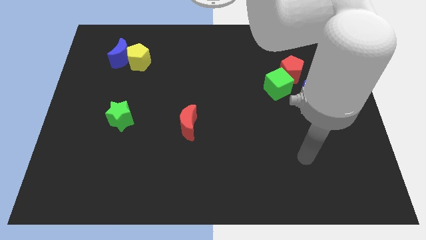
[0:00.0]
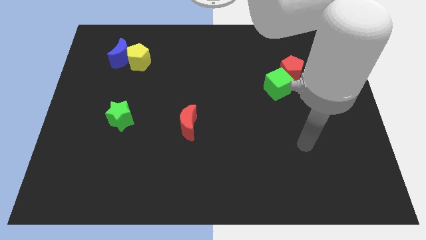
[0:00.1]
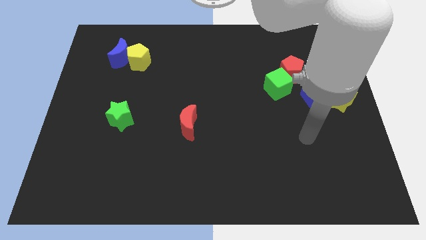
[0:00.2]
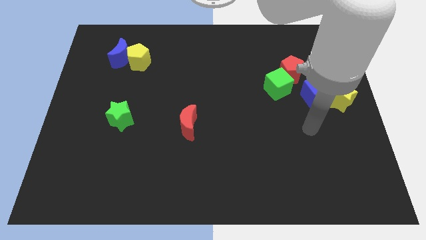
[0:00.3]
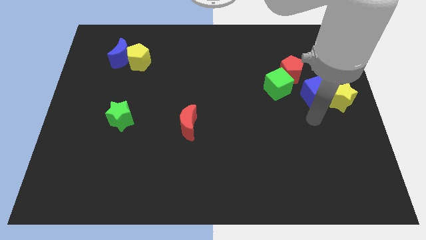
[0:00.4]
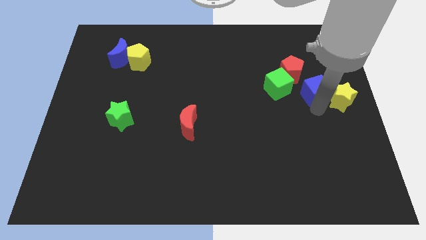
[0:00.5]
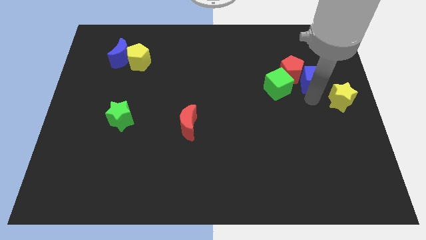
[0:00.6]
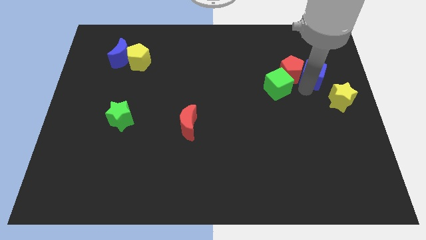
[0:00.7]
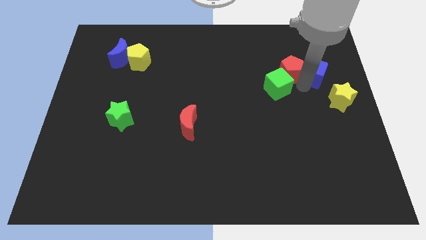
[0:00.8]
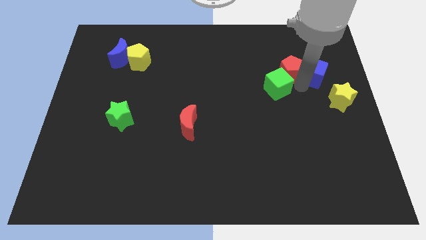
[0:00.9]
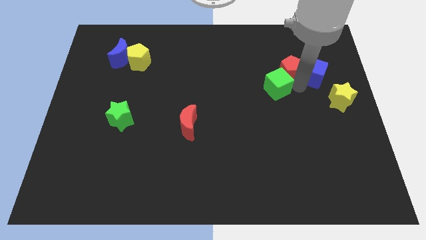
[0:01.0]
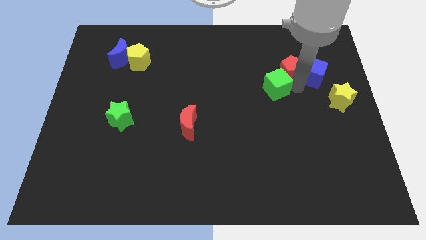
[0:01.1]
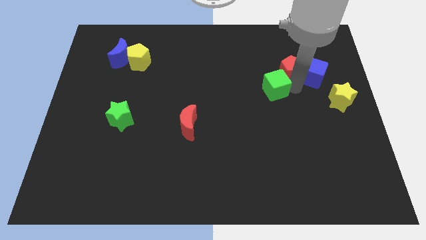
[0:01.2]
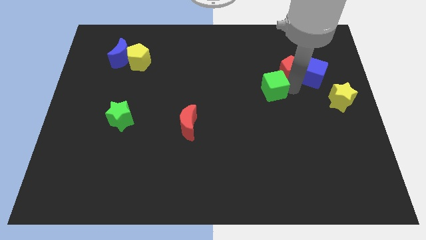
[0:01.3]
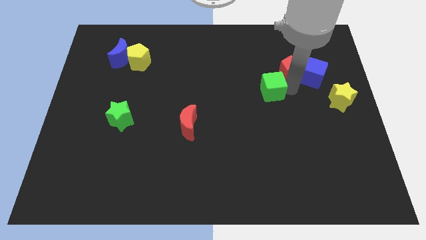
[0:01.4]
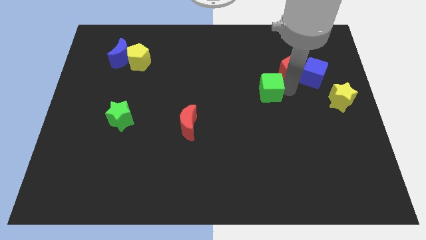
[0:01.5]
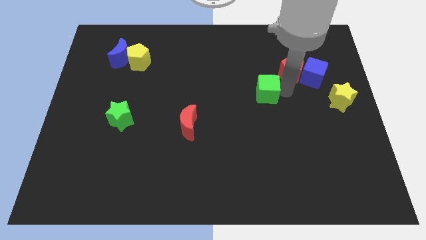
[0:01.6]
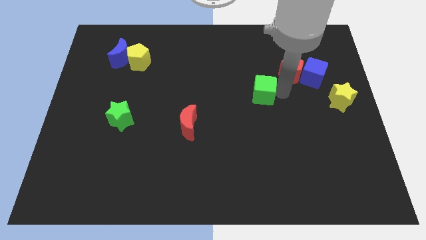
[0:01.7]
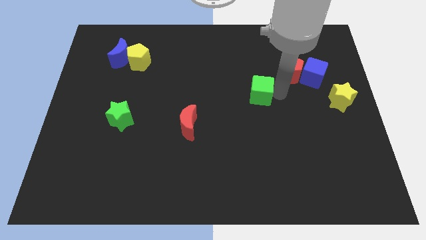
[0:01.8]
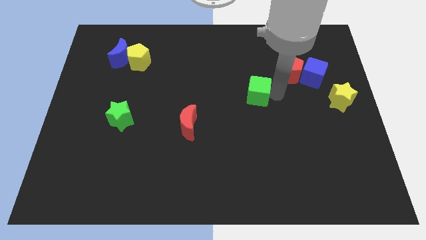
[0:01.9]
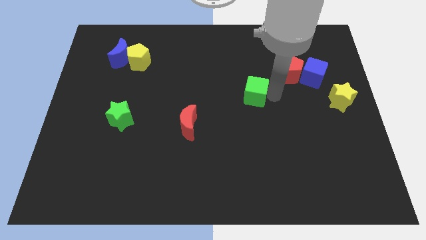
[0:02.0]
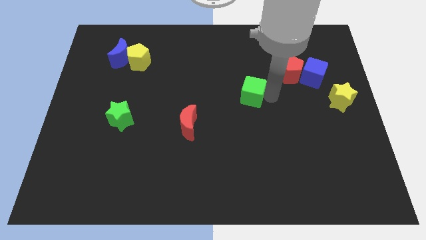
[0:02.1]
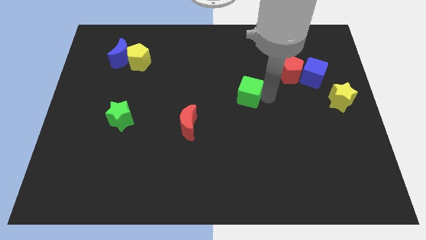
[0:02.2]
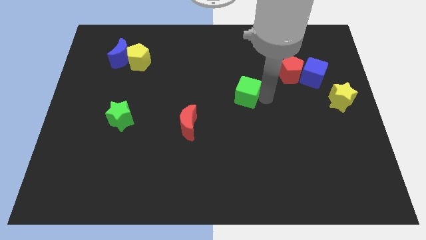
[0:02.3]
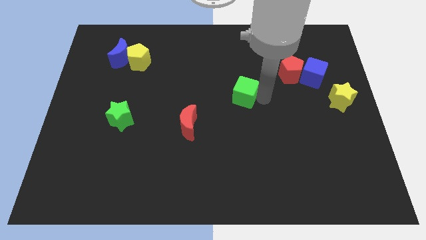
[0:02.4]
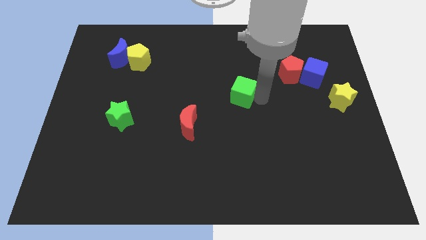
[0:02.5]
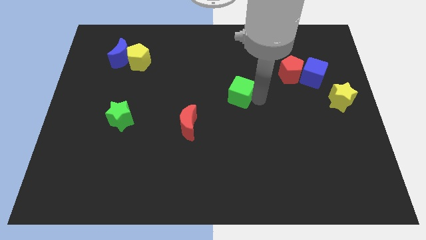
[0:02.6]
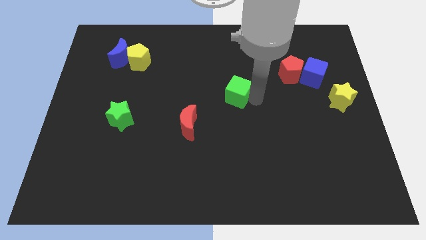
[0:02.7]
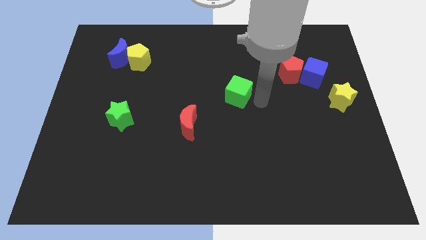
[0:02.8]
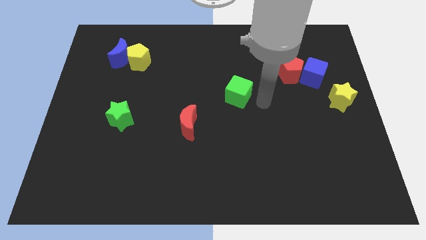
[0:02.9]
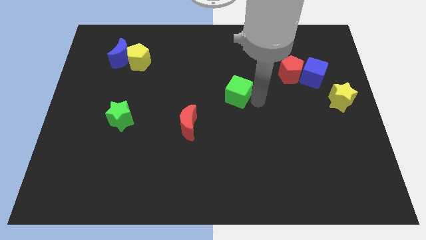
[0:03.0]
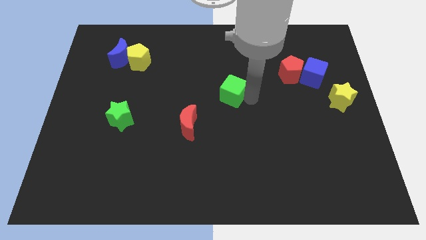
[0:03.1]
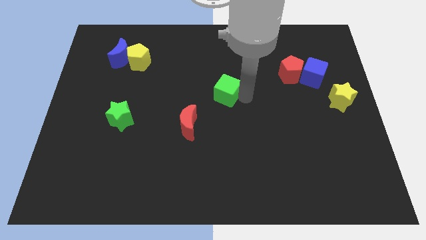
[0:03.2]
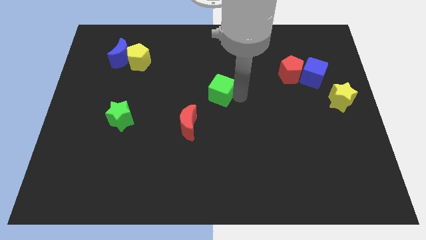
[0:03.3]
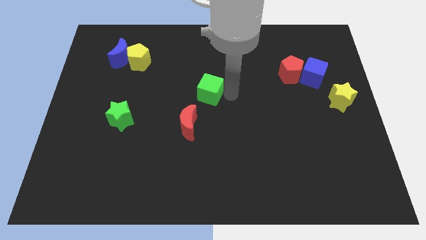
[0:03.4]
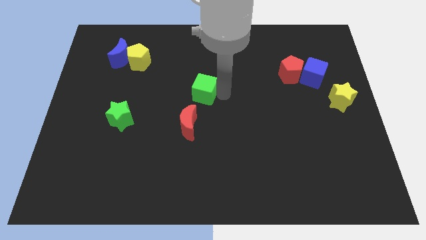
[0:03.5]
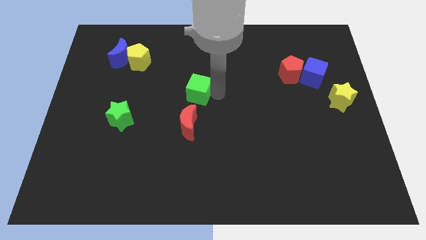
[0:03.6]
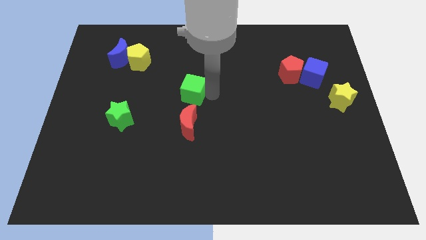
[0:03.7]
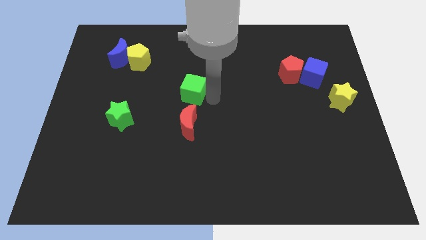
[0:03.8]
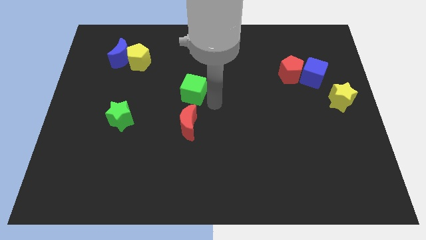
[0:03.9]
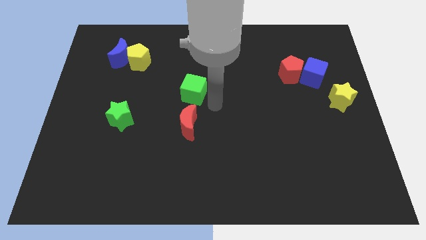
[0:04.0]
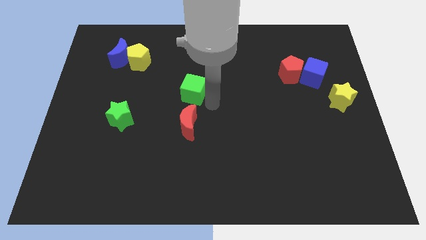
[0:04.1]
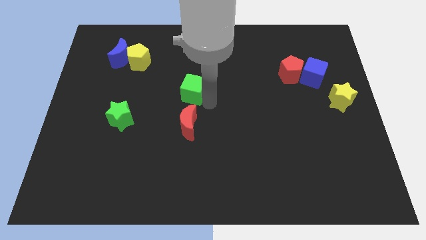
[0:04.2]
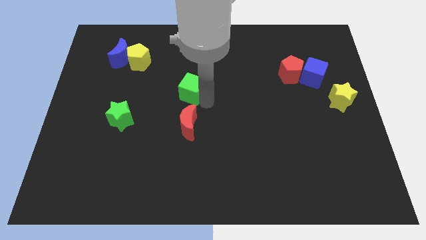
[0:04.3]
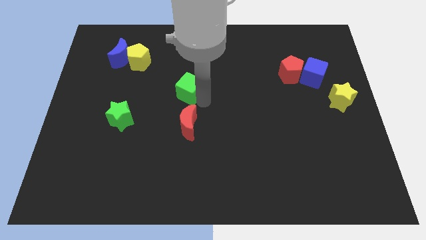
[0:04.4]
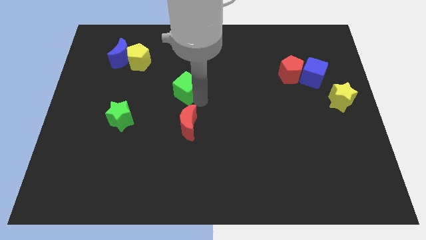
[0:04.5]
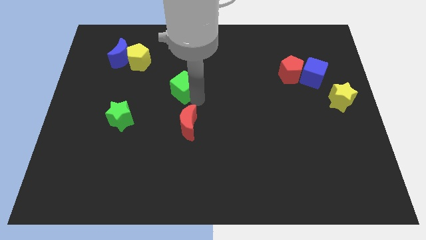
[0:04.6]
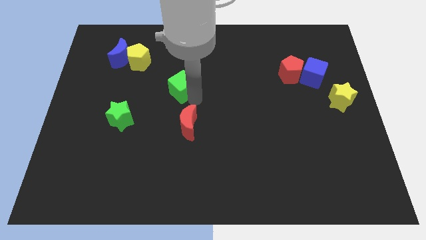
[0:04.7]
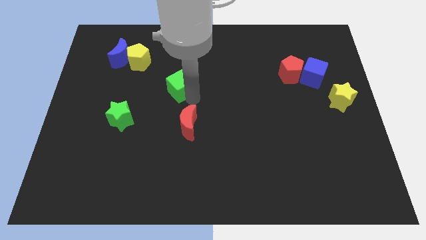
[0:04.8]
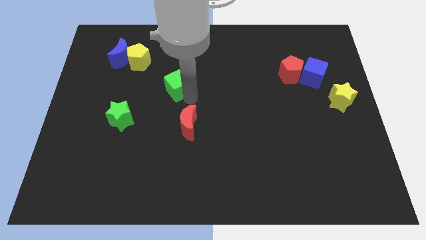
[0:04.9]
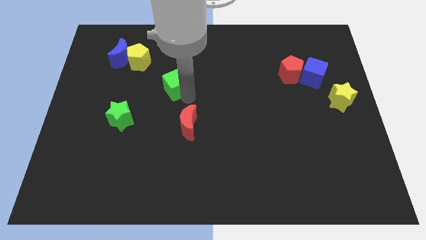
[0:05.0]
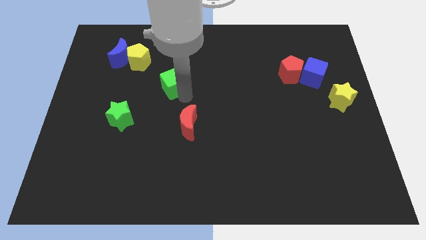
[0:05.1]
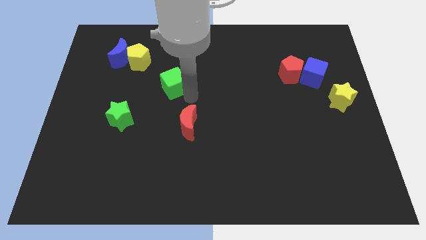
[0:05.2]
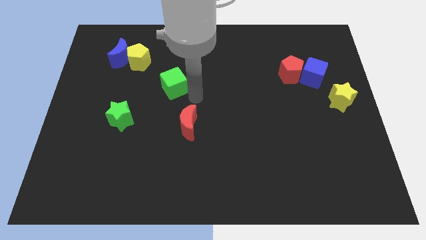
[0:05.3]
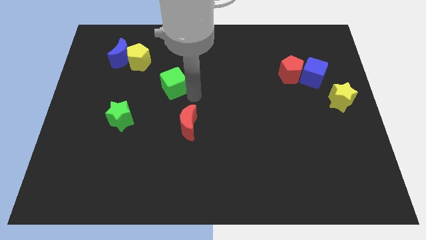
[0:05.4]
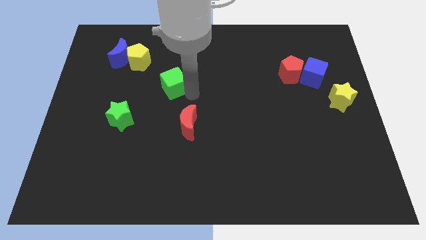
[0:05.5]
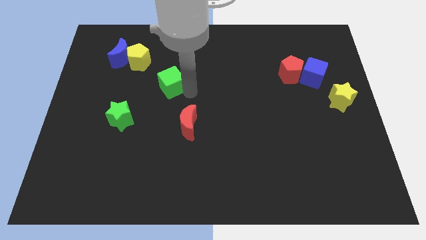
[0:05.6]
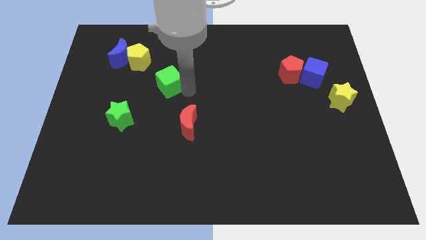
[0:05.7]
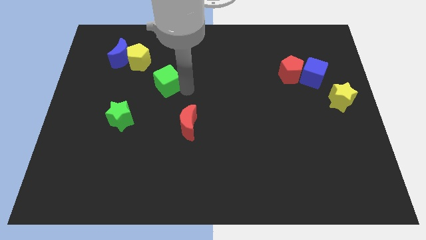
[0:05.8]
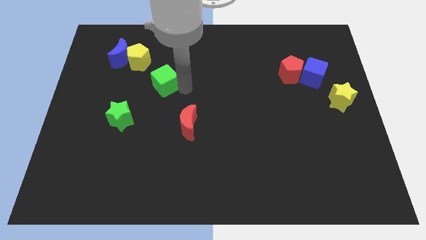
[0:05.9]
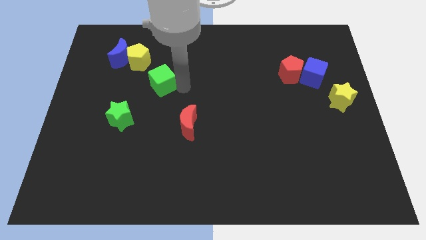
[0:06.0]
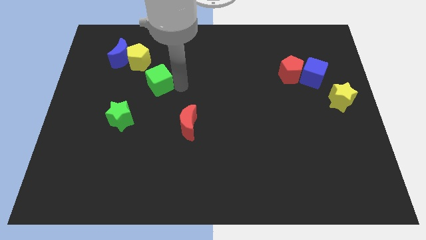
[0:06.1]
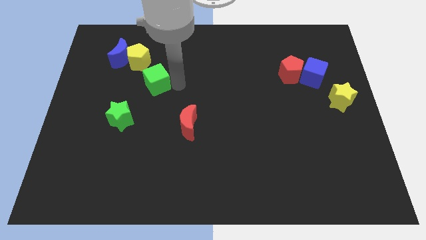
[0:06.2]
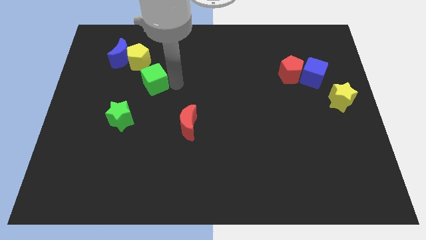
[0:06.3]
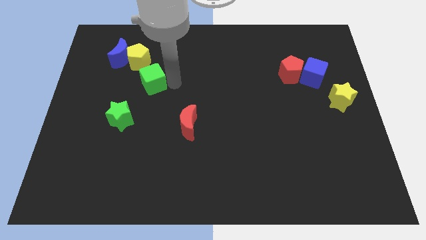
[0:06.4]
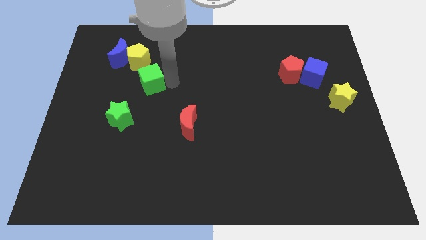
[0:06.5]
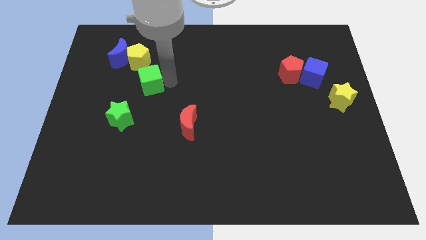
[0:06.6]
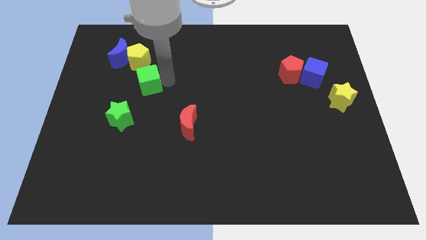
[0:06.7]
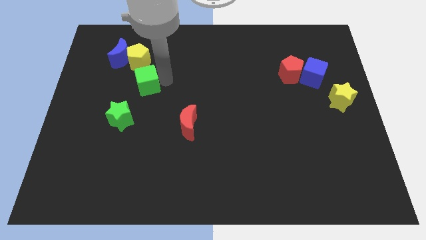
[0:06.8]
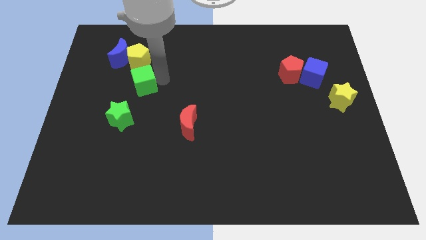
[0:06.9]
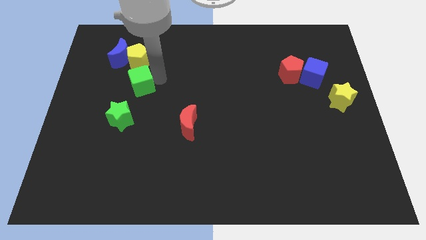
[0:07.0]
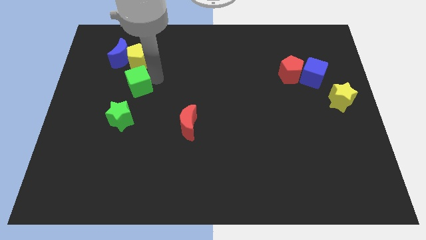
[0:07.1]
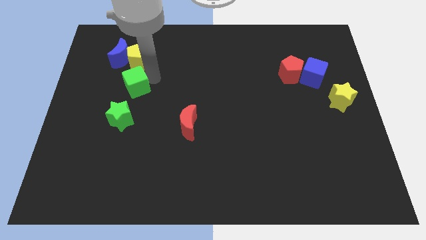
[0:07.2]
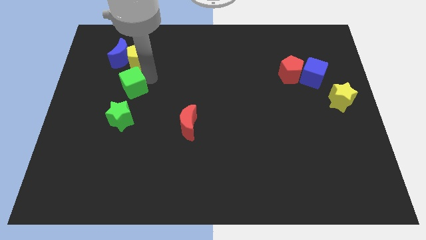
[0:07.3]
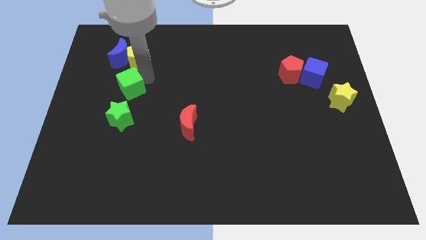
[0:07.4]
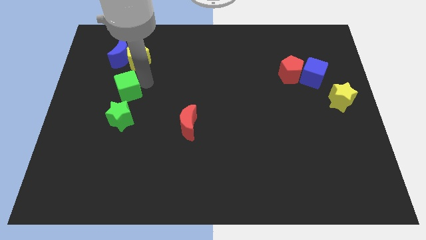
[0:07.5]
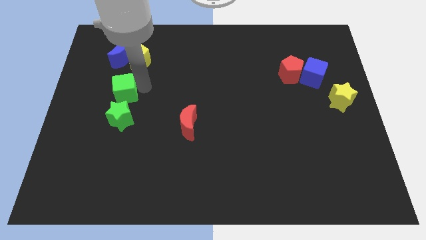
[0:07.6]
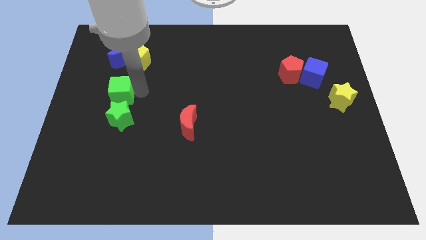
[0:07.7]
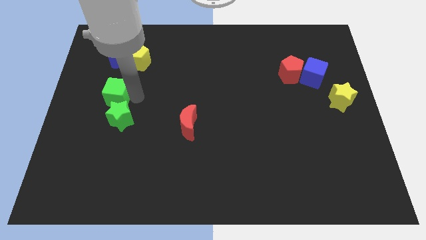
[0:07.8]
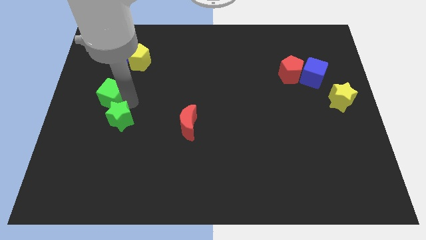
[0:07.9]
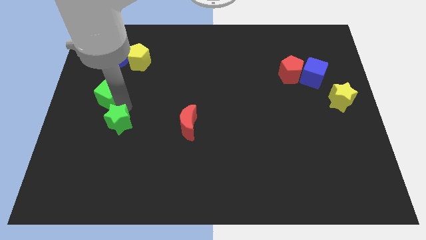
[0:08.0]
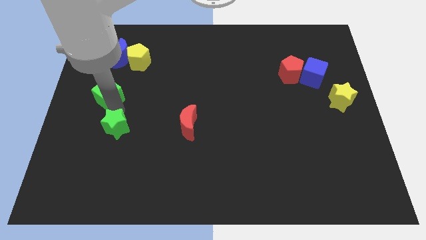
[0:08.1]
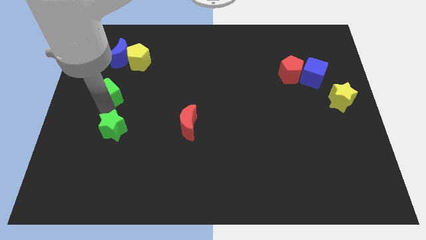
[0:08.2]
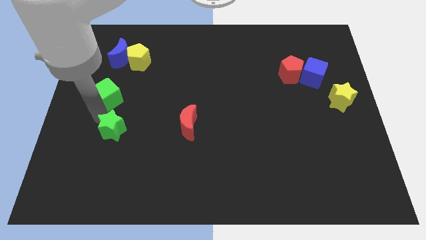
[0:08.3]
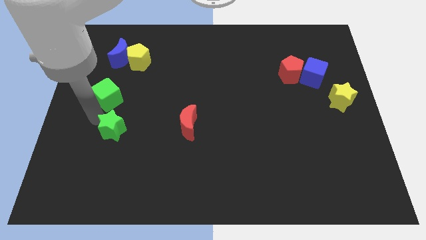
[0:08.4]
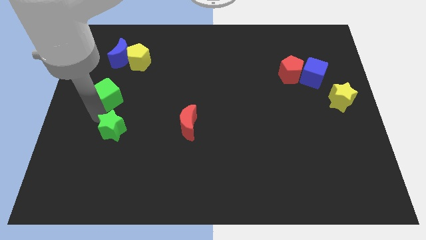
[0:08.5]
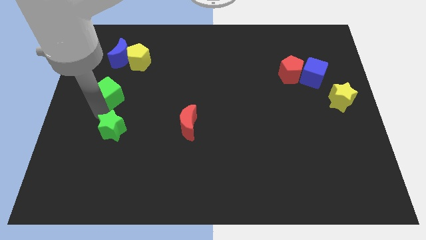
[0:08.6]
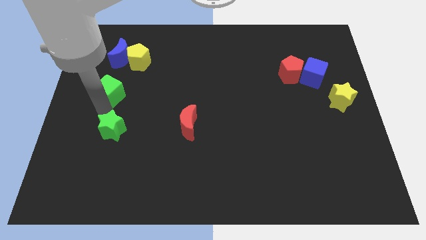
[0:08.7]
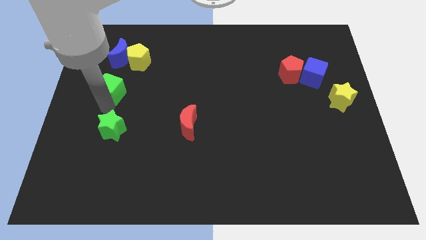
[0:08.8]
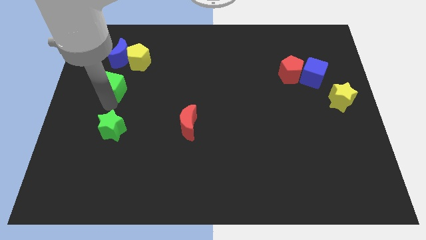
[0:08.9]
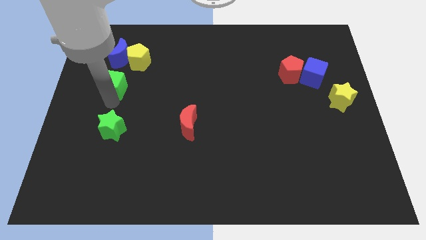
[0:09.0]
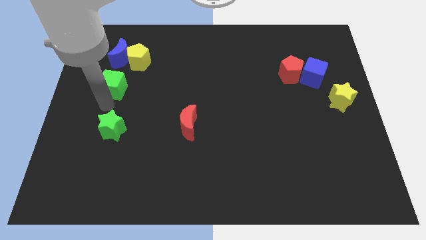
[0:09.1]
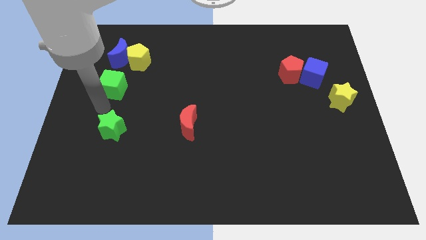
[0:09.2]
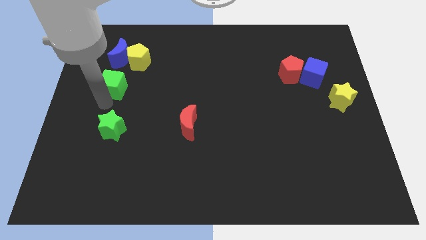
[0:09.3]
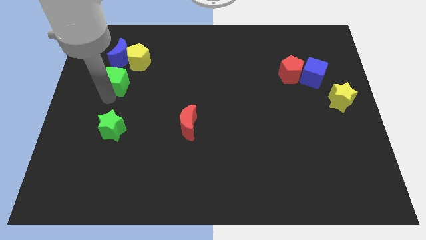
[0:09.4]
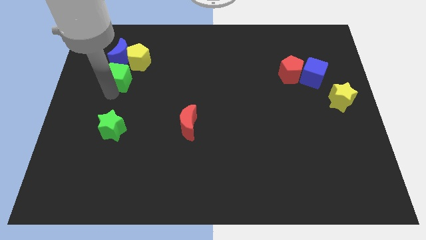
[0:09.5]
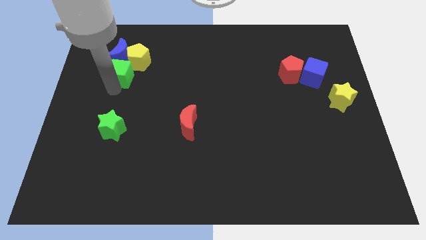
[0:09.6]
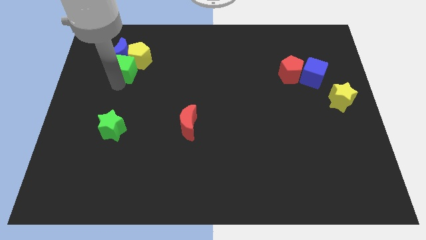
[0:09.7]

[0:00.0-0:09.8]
slide the green cube close to the blue moon
